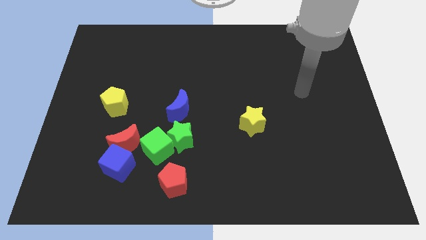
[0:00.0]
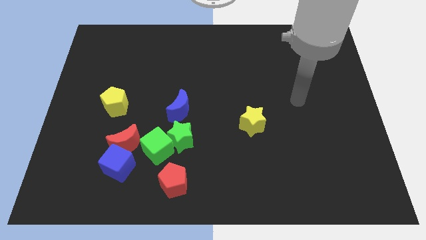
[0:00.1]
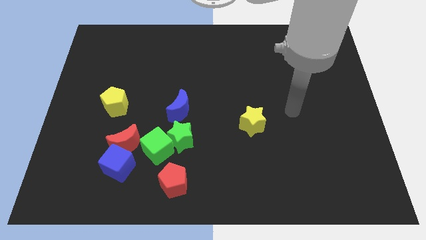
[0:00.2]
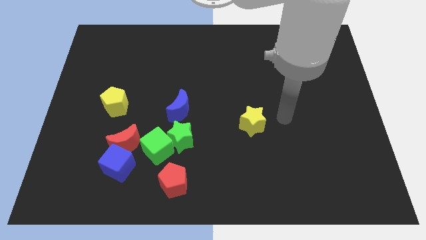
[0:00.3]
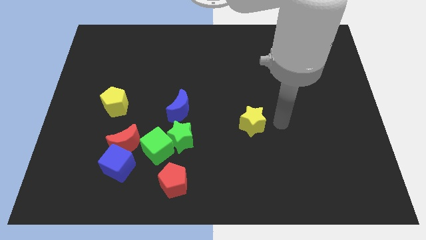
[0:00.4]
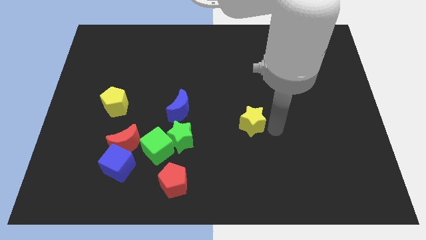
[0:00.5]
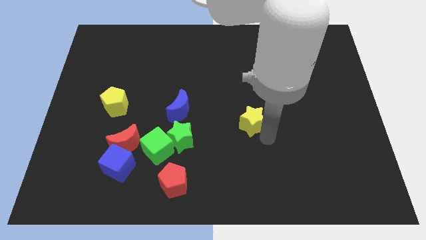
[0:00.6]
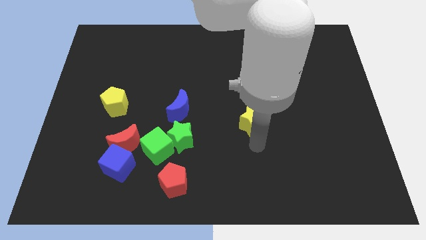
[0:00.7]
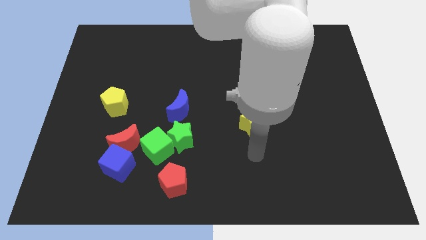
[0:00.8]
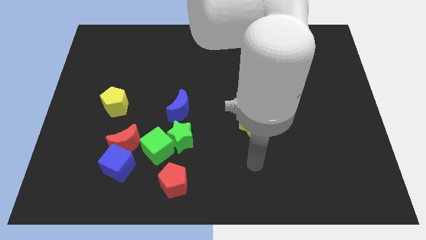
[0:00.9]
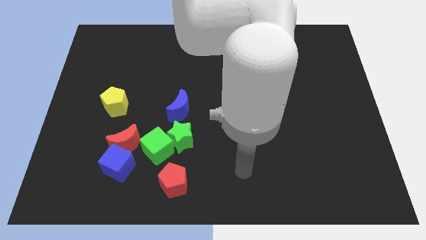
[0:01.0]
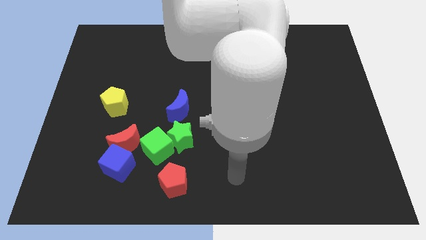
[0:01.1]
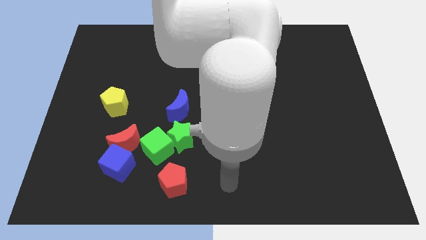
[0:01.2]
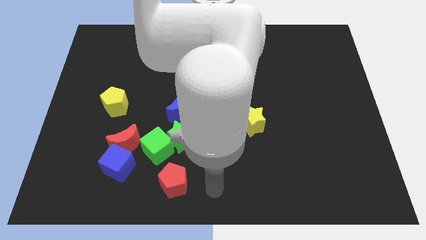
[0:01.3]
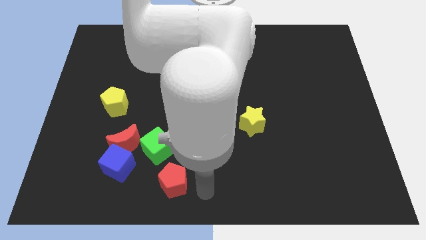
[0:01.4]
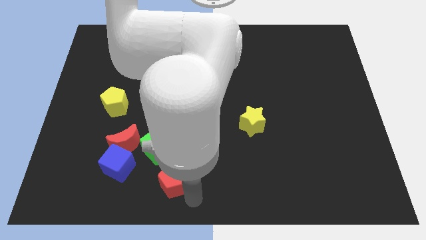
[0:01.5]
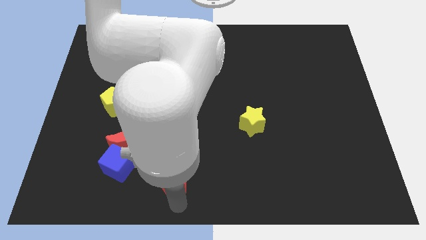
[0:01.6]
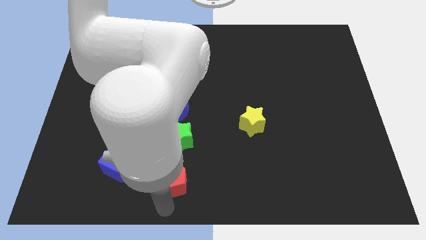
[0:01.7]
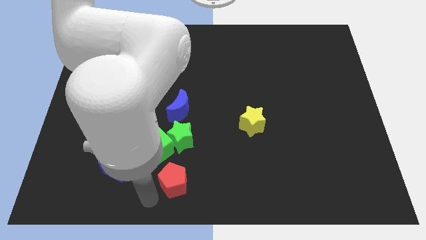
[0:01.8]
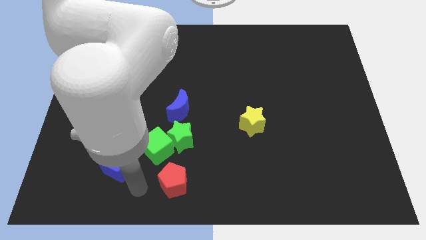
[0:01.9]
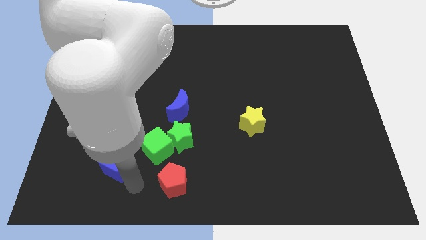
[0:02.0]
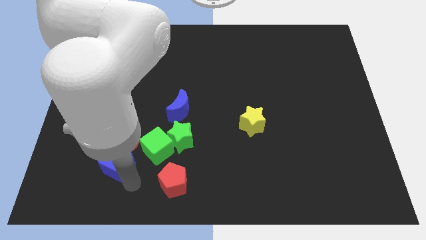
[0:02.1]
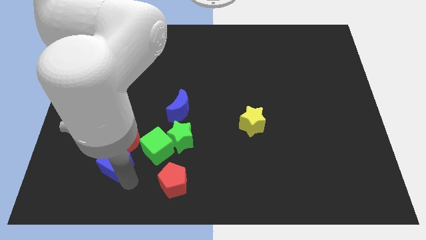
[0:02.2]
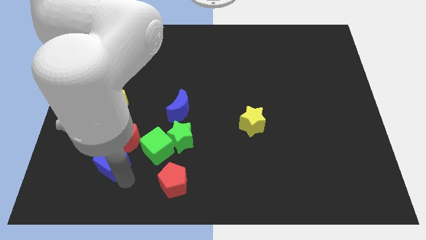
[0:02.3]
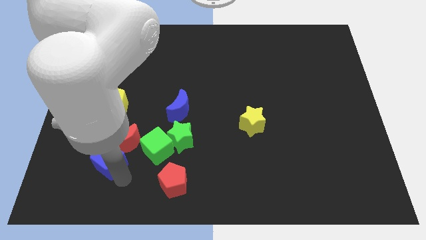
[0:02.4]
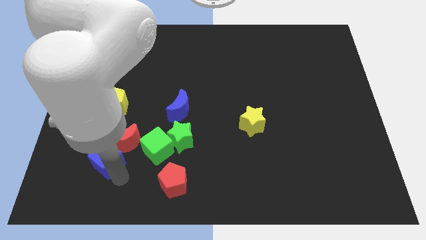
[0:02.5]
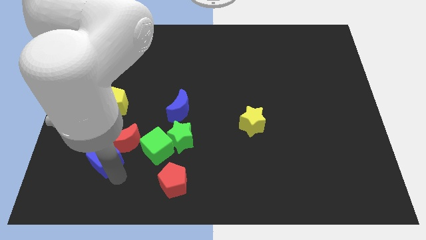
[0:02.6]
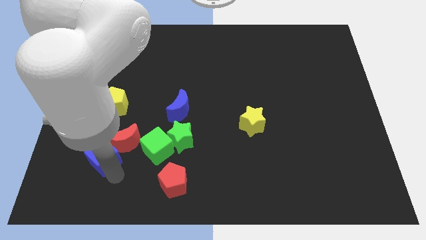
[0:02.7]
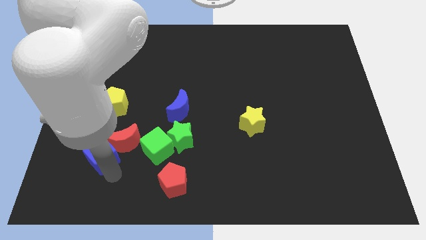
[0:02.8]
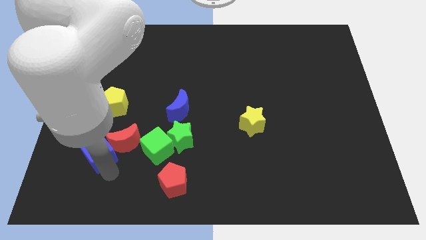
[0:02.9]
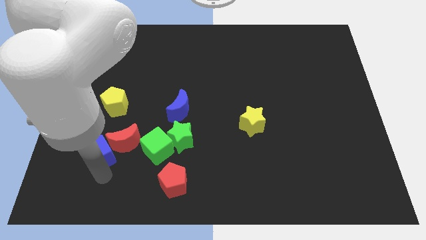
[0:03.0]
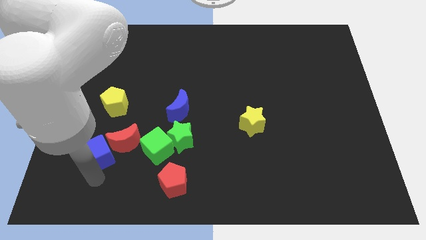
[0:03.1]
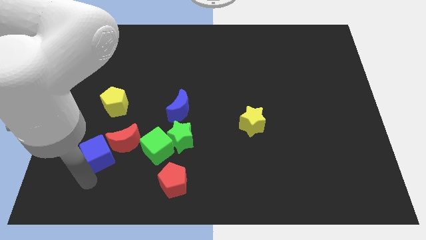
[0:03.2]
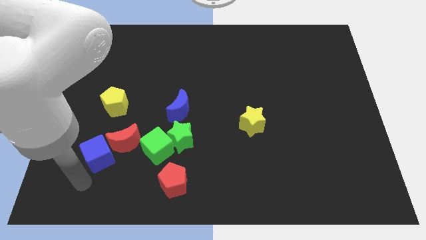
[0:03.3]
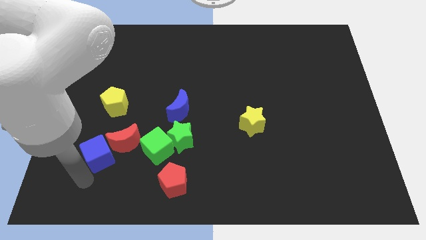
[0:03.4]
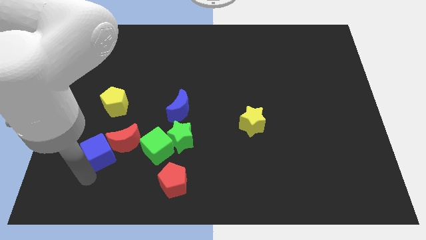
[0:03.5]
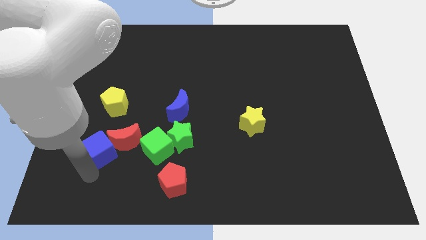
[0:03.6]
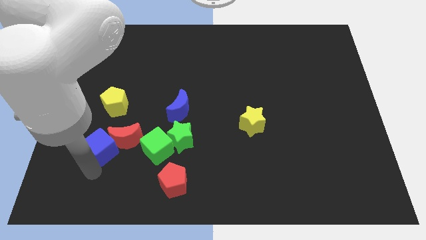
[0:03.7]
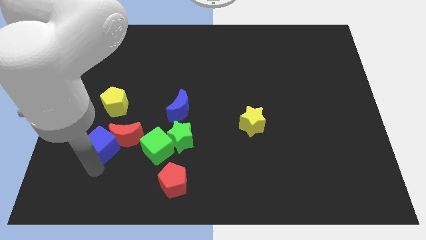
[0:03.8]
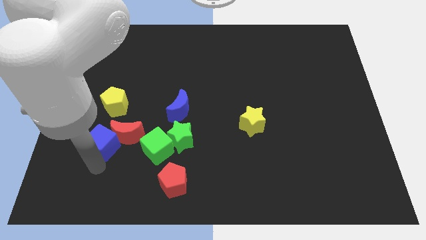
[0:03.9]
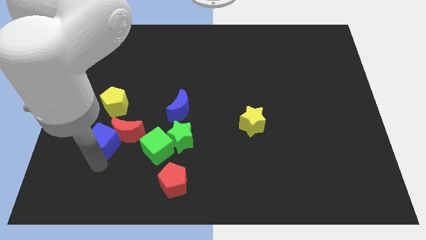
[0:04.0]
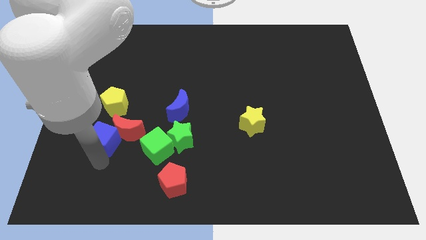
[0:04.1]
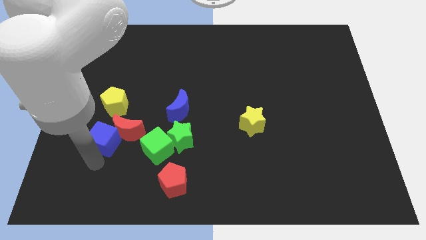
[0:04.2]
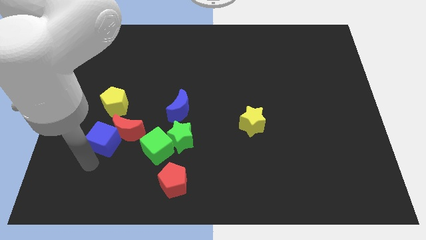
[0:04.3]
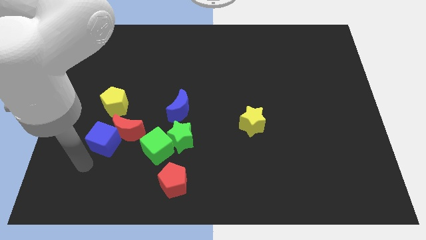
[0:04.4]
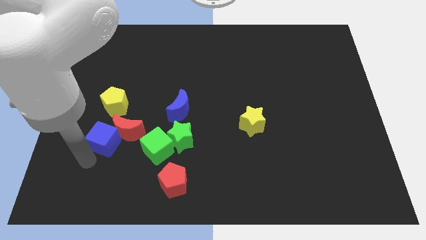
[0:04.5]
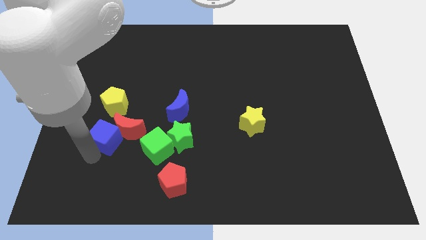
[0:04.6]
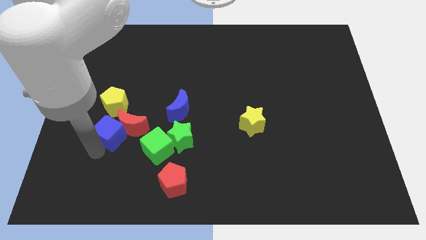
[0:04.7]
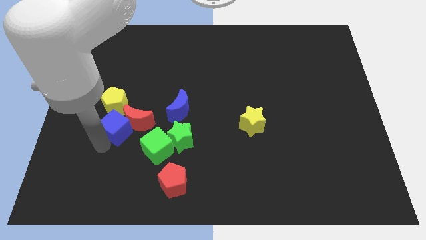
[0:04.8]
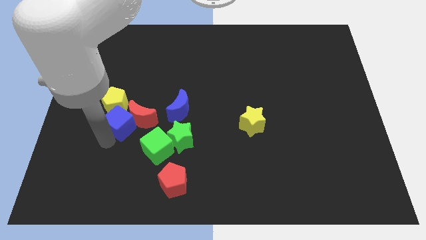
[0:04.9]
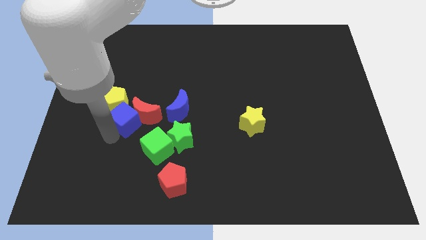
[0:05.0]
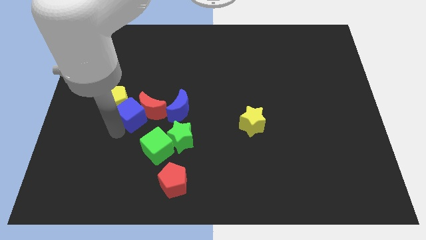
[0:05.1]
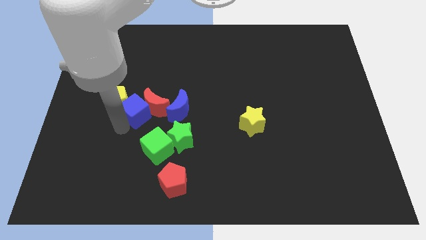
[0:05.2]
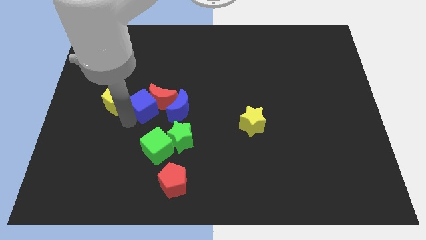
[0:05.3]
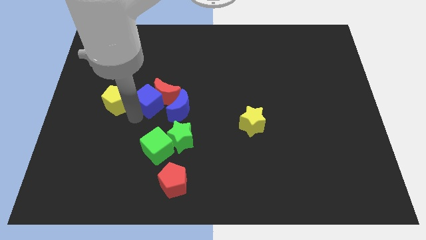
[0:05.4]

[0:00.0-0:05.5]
put the blue cube diagonally up and to the left of the blue moon

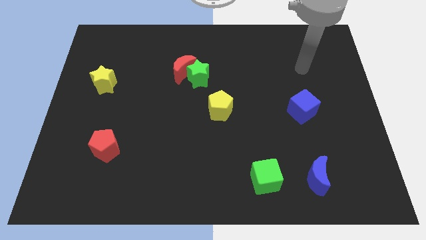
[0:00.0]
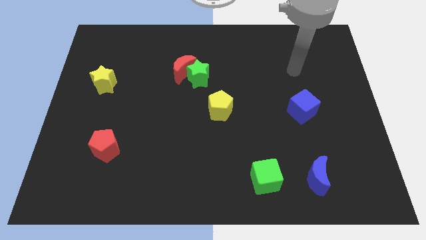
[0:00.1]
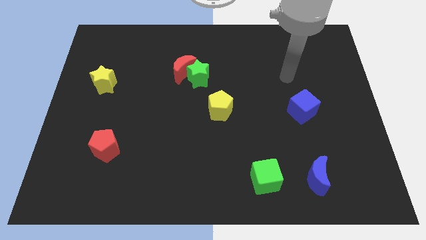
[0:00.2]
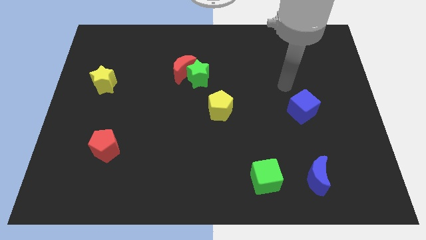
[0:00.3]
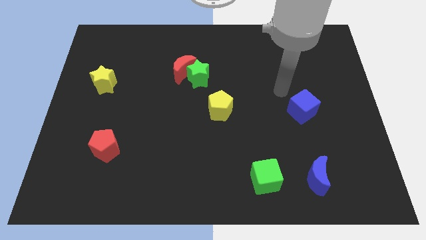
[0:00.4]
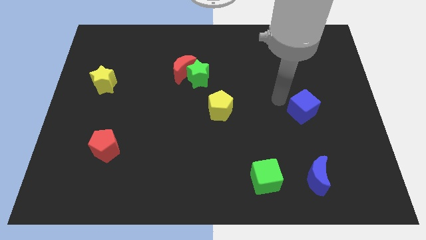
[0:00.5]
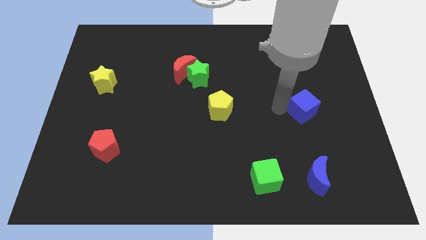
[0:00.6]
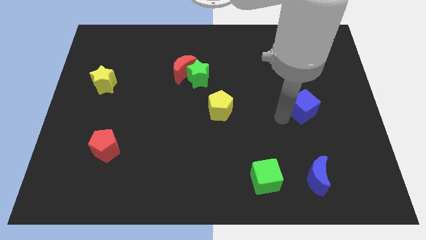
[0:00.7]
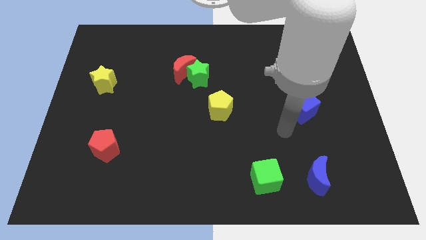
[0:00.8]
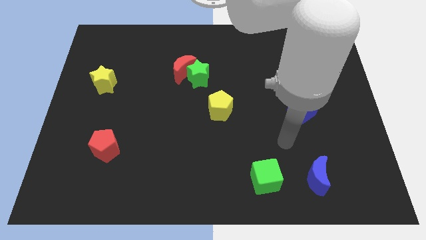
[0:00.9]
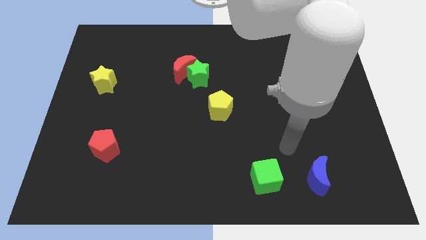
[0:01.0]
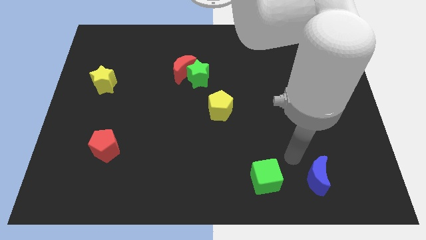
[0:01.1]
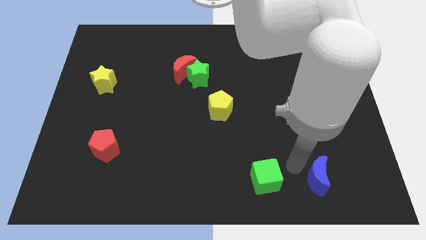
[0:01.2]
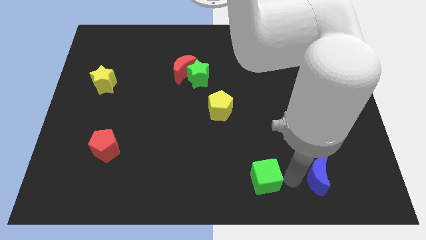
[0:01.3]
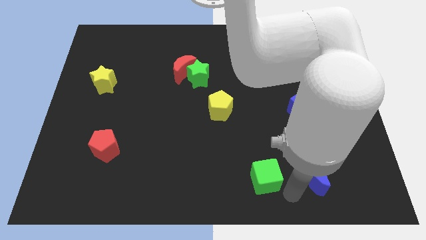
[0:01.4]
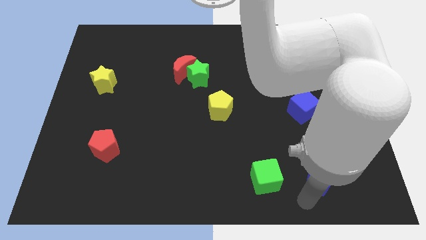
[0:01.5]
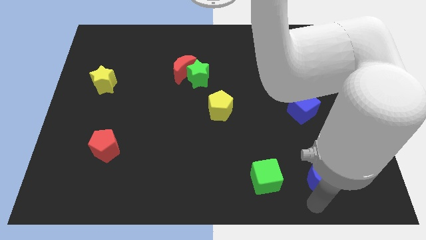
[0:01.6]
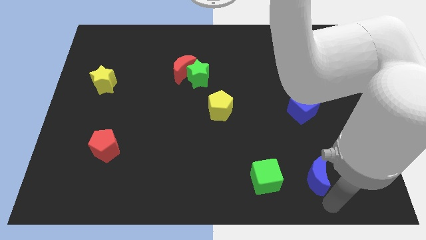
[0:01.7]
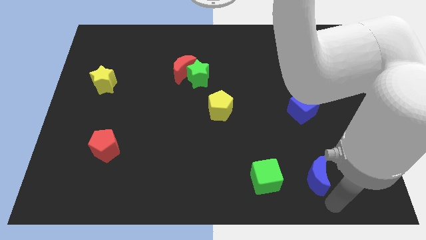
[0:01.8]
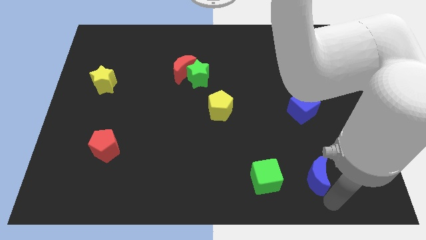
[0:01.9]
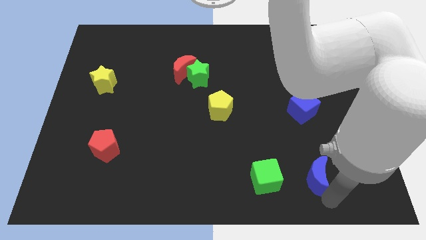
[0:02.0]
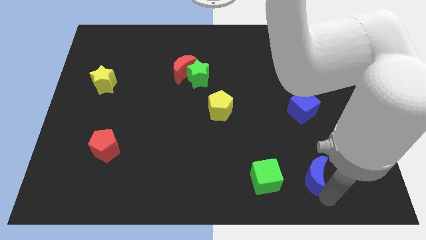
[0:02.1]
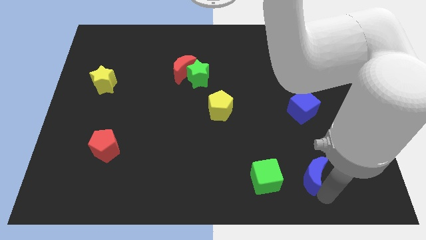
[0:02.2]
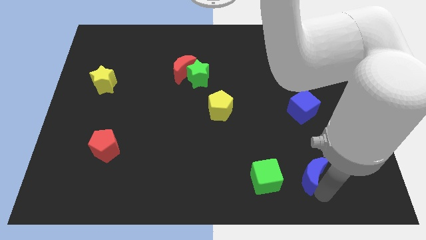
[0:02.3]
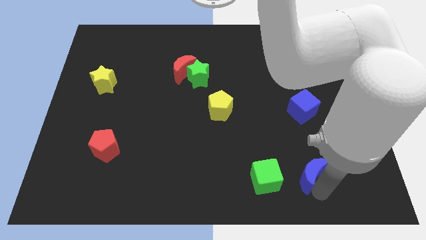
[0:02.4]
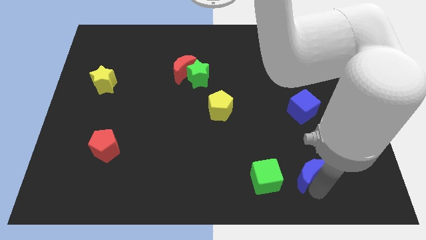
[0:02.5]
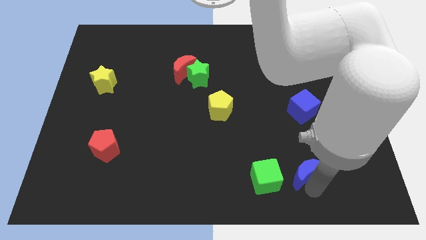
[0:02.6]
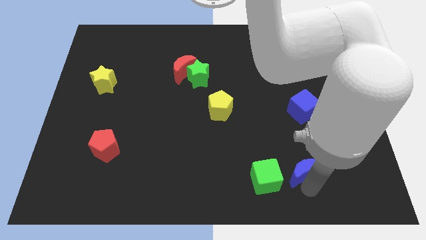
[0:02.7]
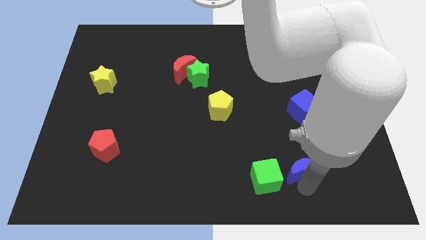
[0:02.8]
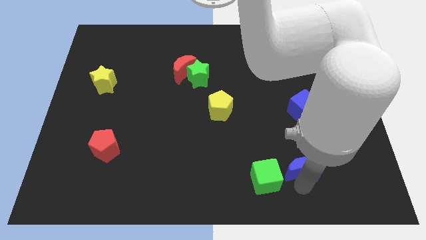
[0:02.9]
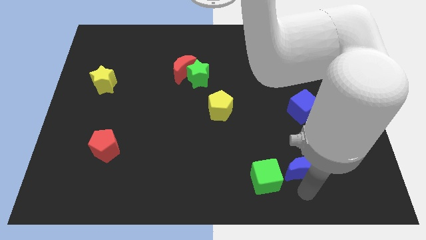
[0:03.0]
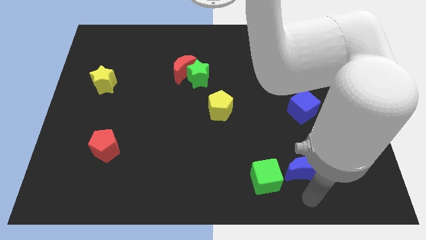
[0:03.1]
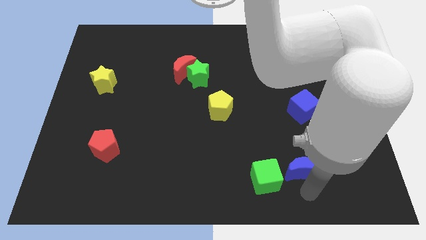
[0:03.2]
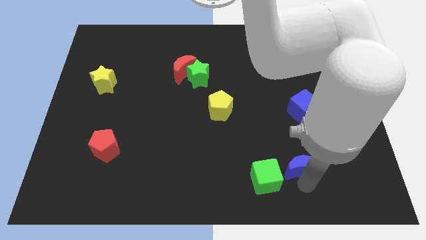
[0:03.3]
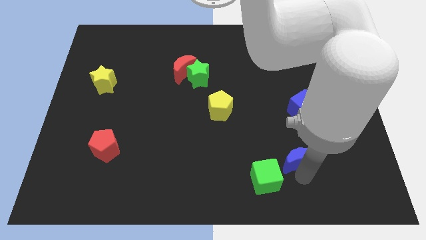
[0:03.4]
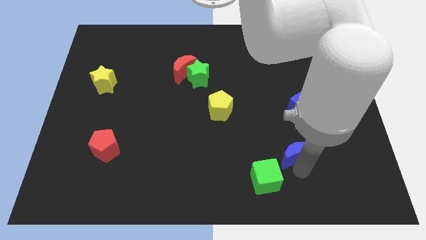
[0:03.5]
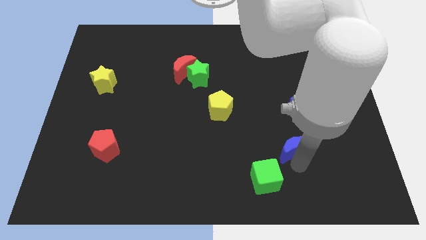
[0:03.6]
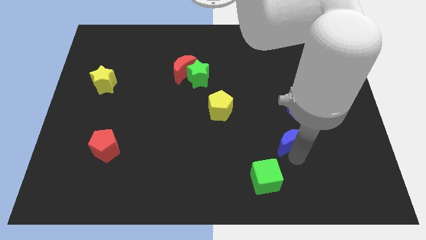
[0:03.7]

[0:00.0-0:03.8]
slide the blue moon to the bottom left of the blue cube
